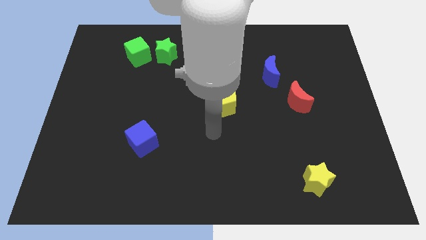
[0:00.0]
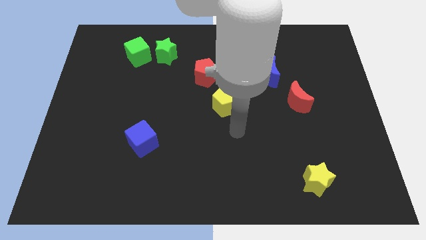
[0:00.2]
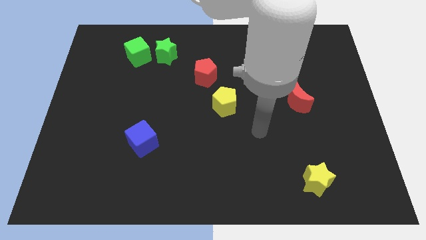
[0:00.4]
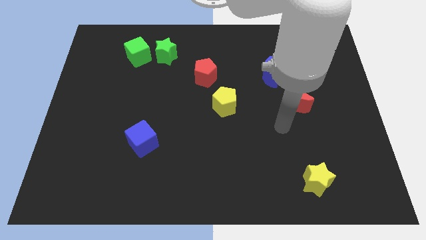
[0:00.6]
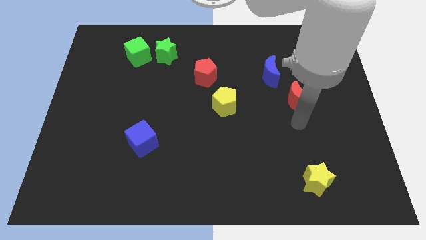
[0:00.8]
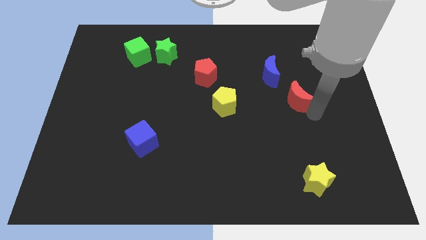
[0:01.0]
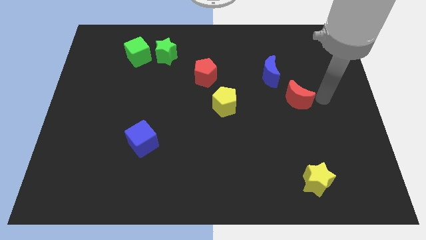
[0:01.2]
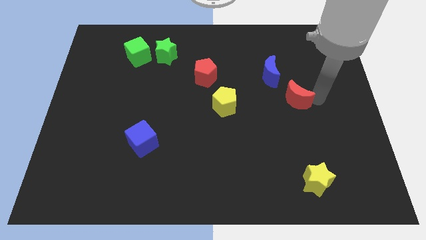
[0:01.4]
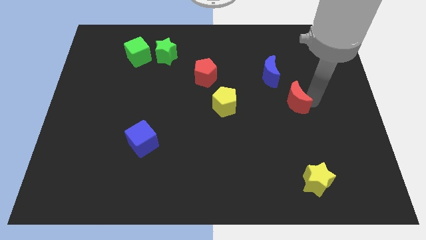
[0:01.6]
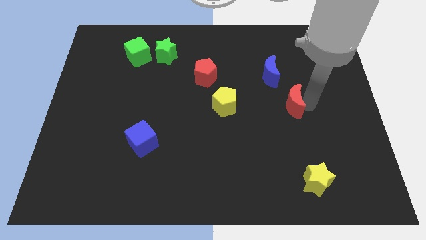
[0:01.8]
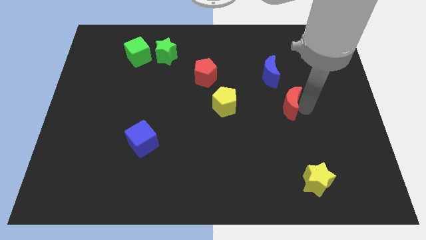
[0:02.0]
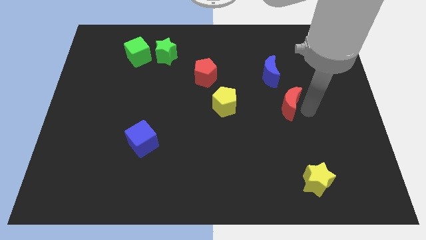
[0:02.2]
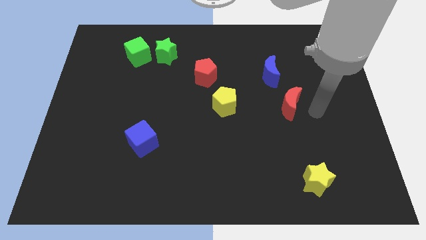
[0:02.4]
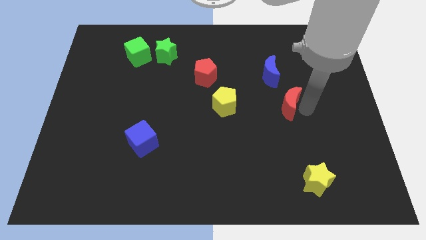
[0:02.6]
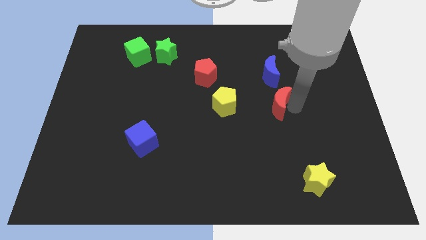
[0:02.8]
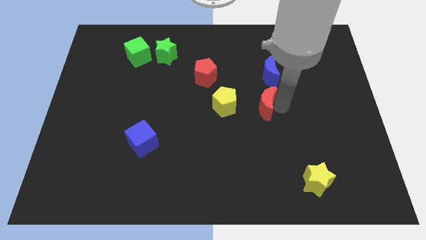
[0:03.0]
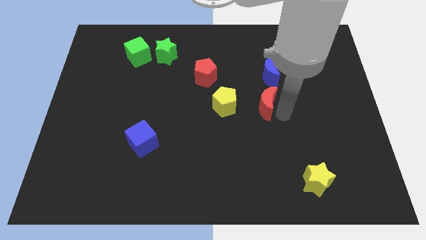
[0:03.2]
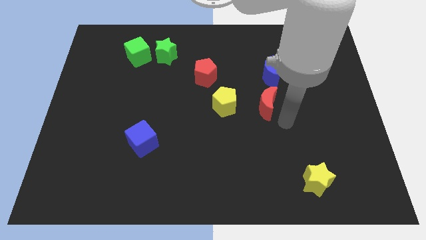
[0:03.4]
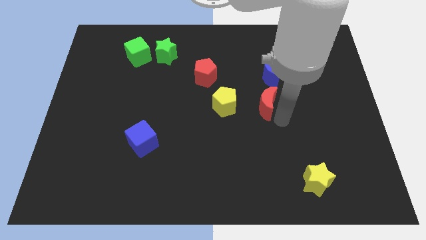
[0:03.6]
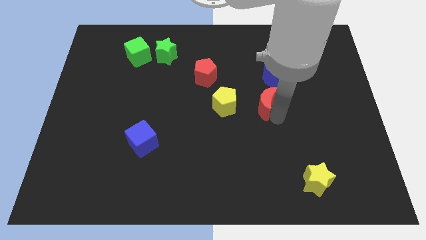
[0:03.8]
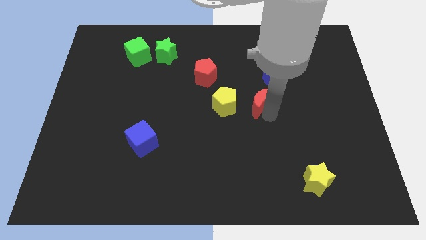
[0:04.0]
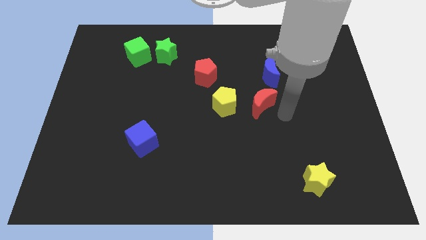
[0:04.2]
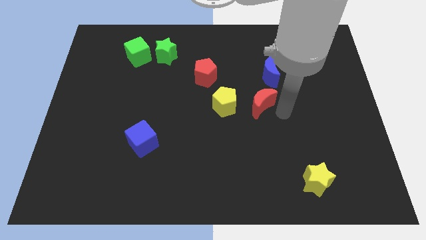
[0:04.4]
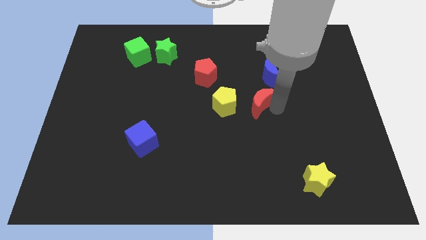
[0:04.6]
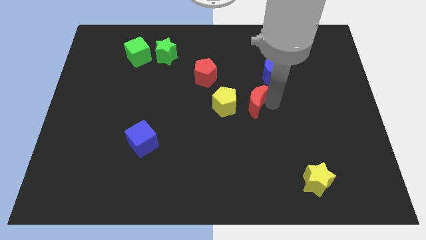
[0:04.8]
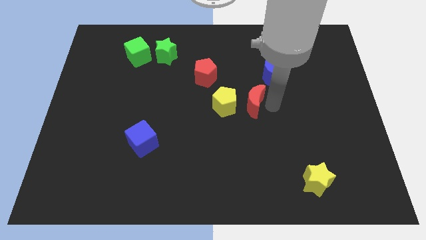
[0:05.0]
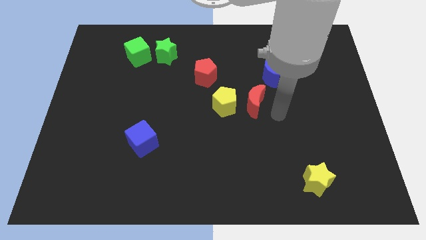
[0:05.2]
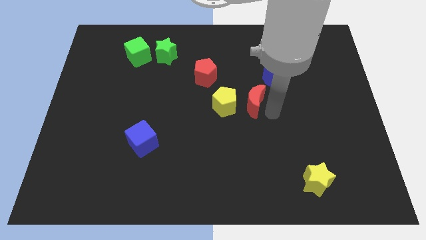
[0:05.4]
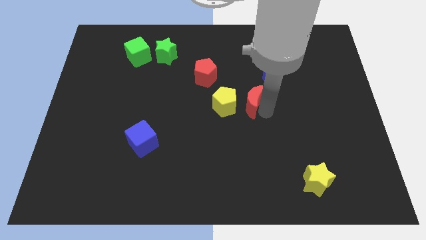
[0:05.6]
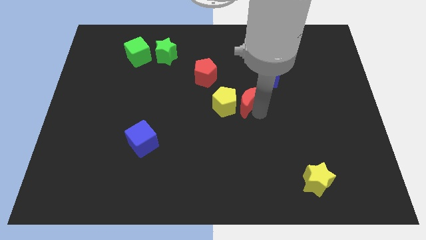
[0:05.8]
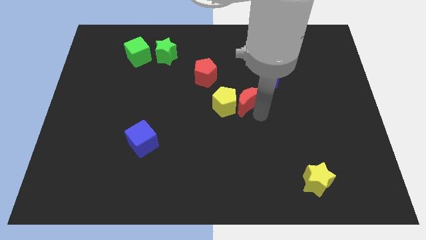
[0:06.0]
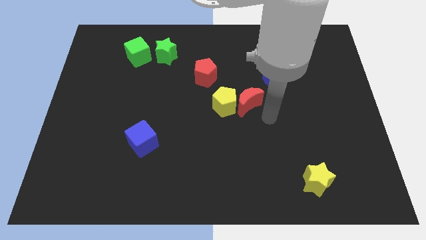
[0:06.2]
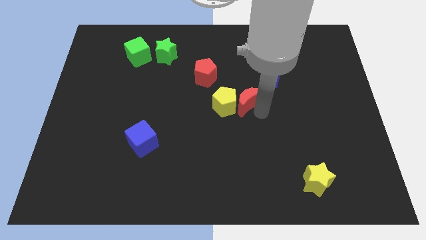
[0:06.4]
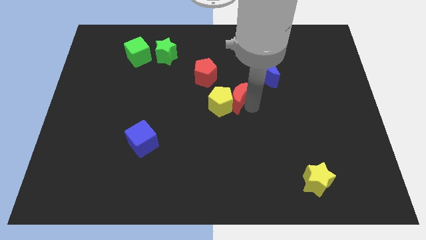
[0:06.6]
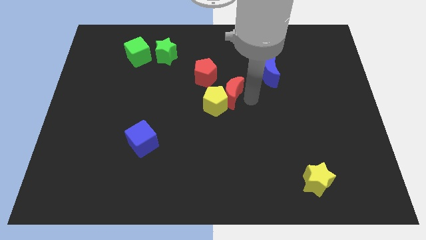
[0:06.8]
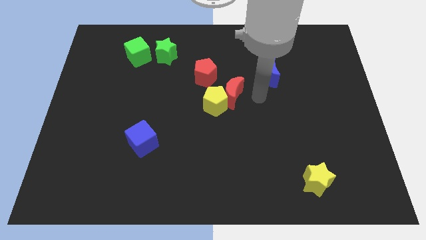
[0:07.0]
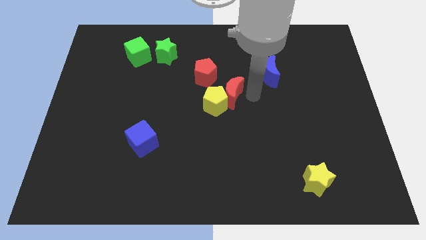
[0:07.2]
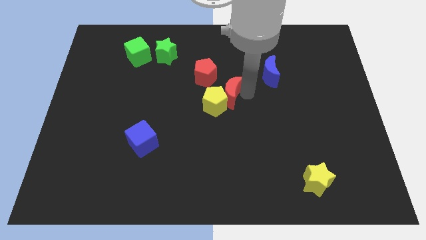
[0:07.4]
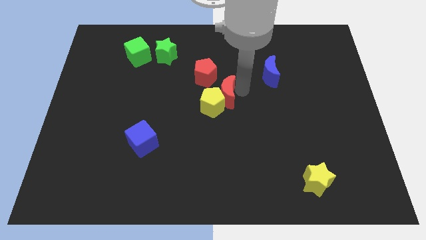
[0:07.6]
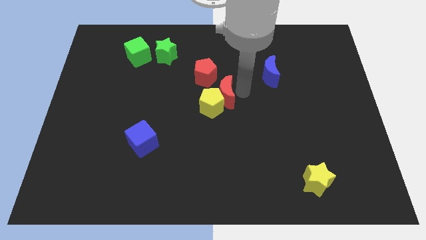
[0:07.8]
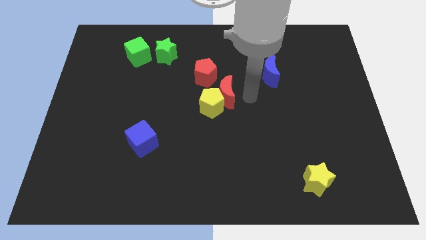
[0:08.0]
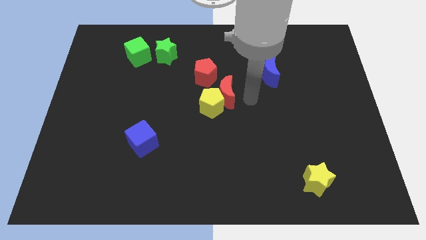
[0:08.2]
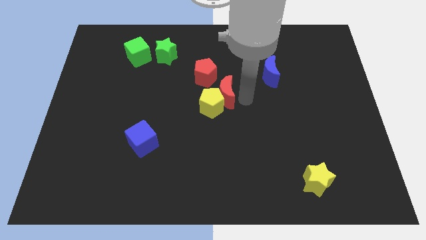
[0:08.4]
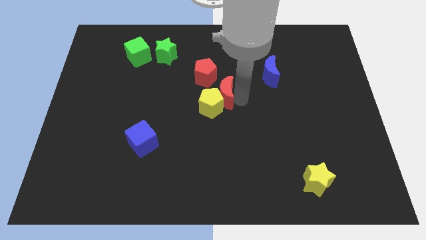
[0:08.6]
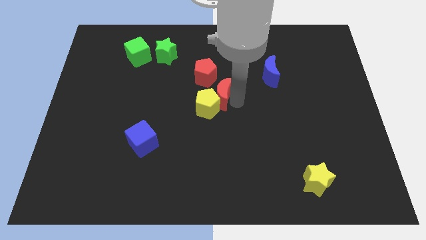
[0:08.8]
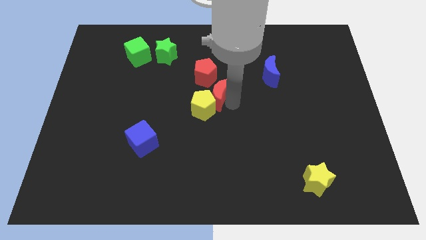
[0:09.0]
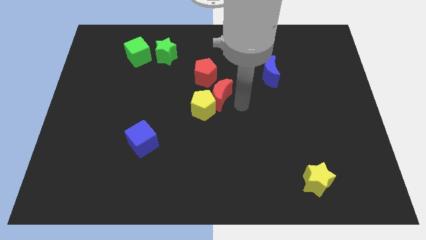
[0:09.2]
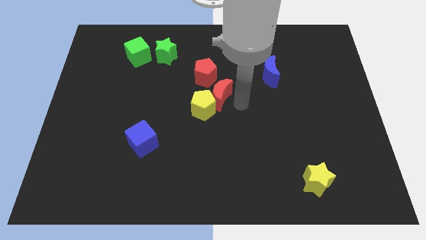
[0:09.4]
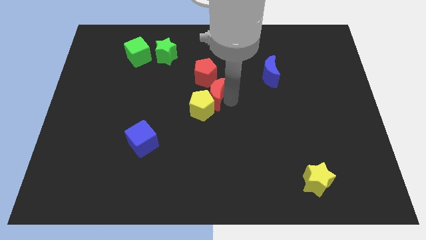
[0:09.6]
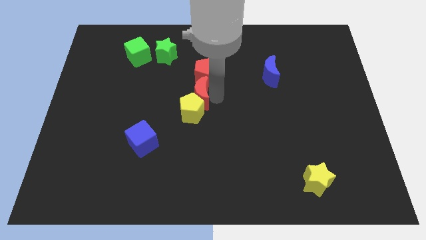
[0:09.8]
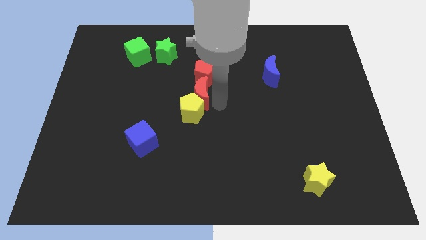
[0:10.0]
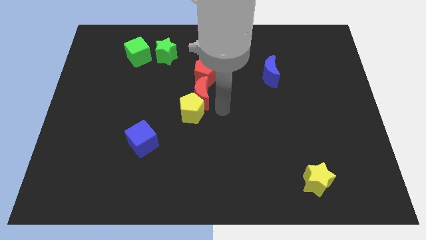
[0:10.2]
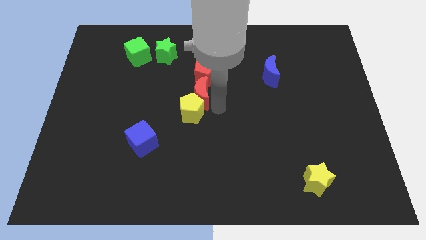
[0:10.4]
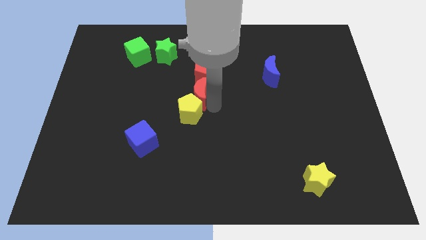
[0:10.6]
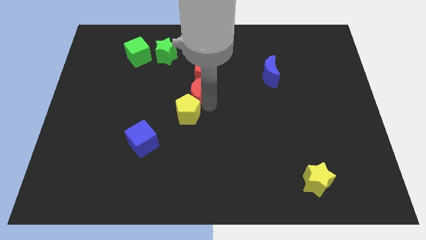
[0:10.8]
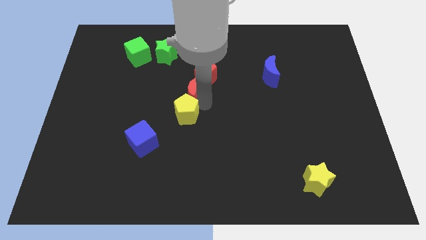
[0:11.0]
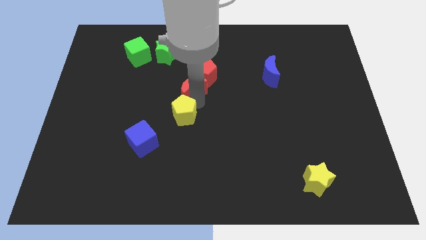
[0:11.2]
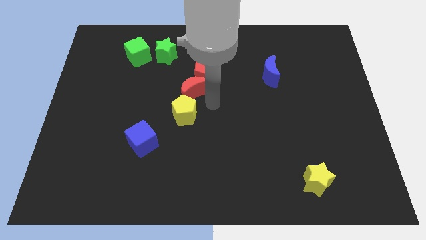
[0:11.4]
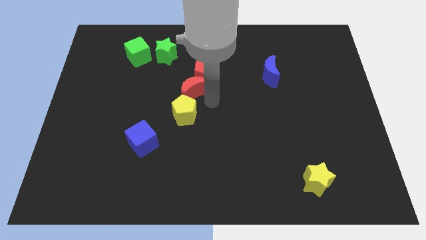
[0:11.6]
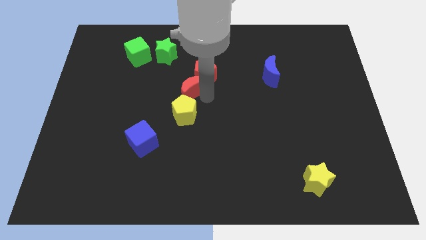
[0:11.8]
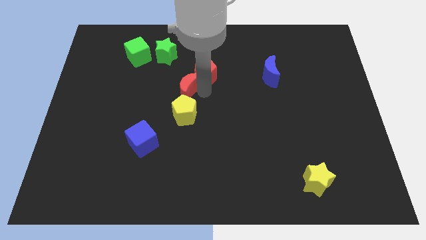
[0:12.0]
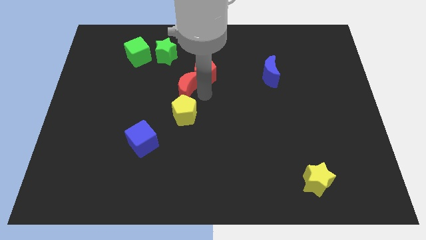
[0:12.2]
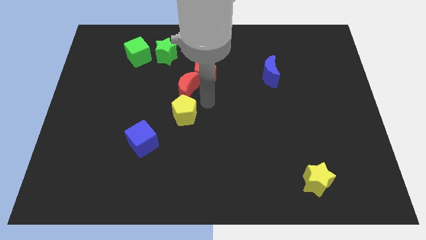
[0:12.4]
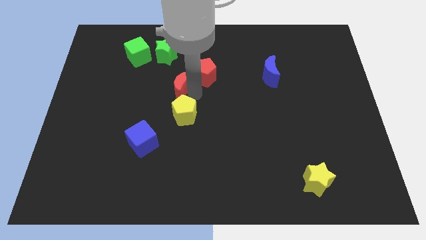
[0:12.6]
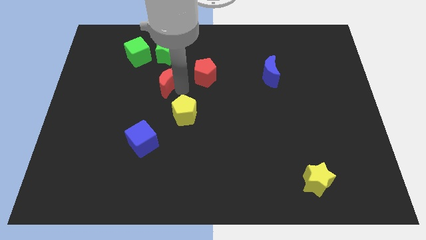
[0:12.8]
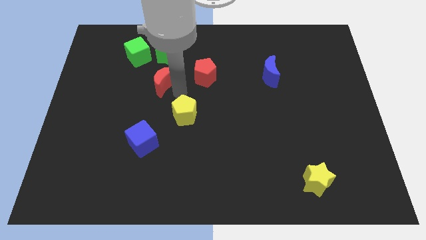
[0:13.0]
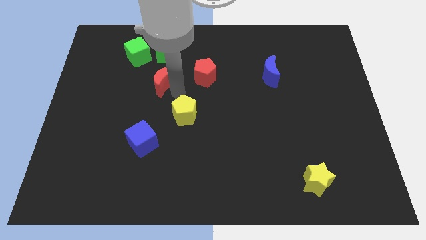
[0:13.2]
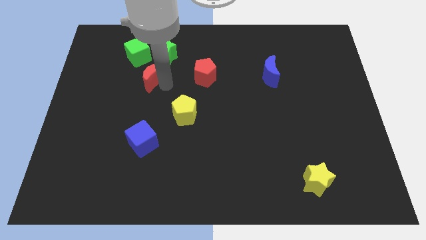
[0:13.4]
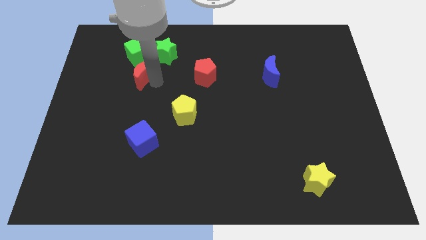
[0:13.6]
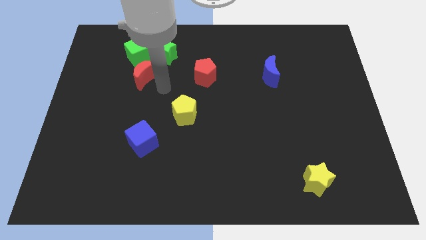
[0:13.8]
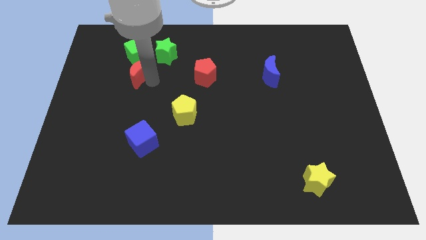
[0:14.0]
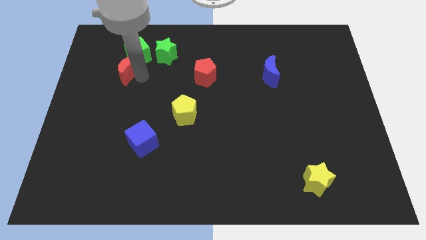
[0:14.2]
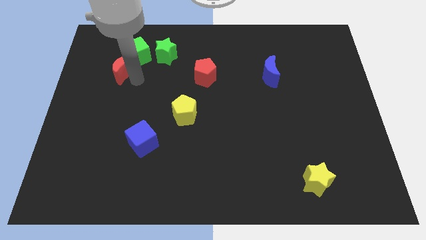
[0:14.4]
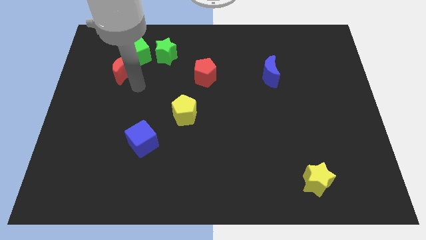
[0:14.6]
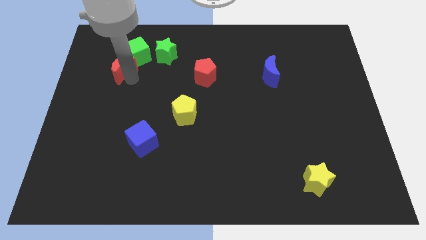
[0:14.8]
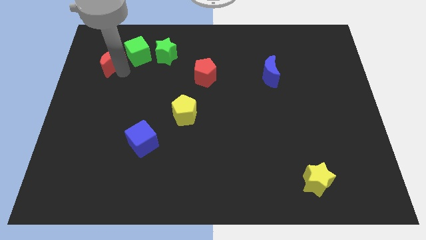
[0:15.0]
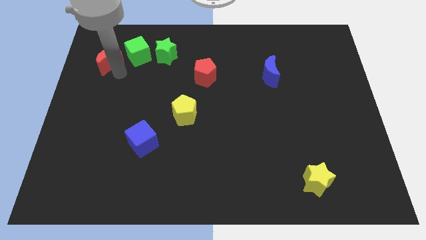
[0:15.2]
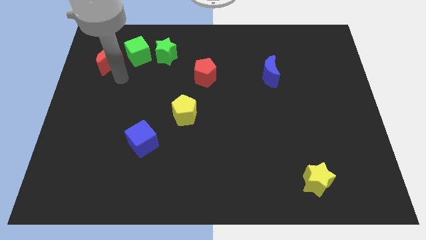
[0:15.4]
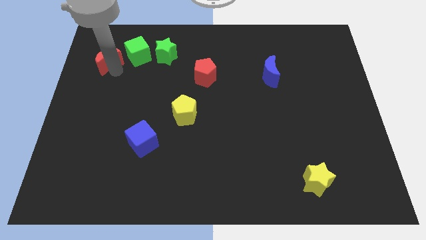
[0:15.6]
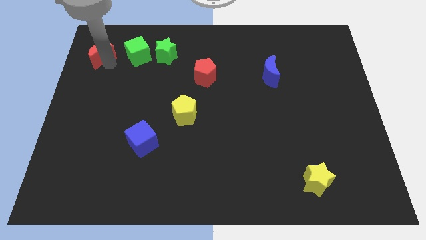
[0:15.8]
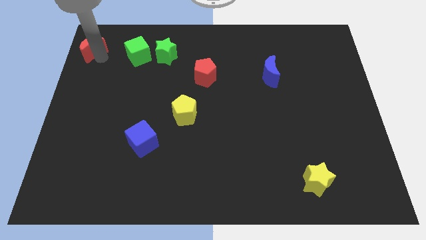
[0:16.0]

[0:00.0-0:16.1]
push the red moon to the upper left corner
